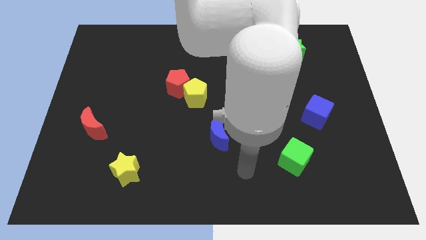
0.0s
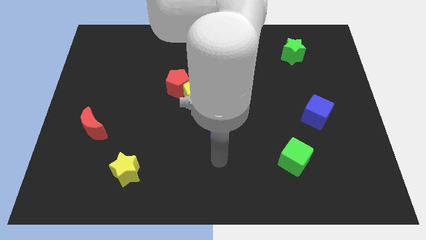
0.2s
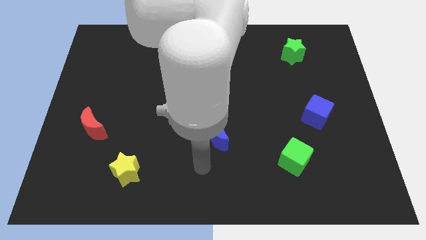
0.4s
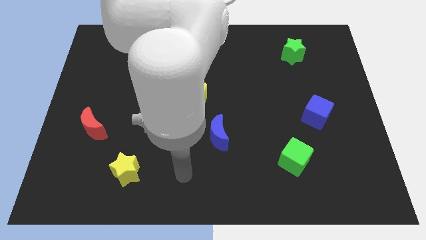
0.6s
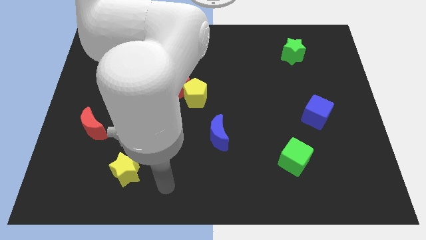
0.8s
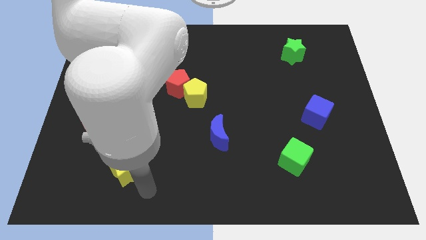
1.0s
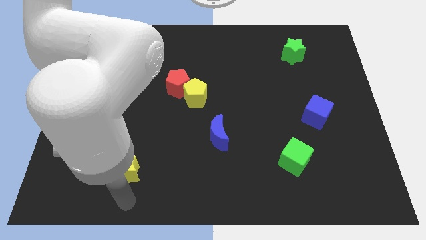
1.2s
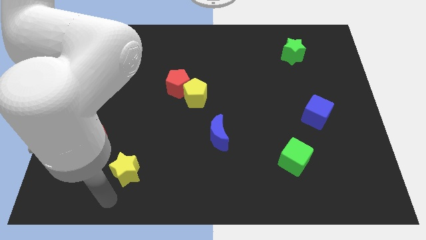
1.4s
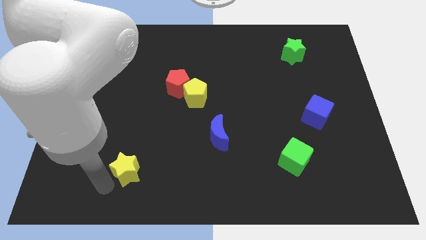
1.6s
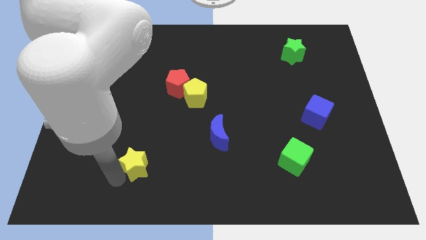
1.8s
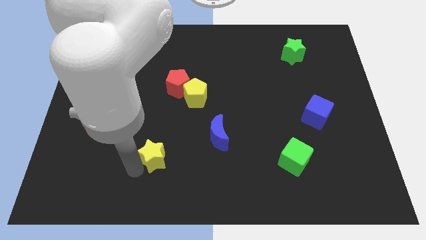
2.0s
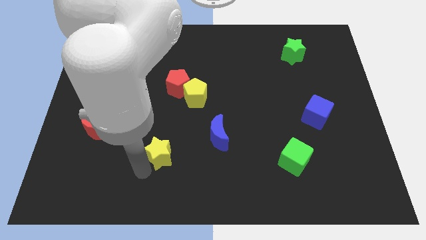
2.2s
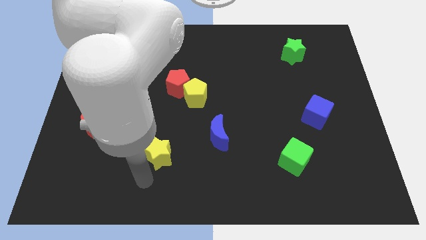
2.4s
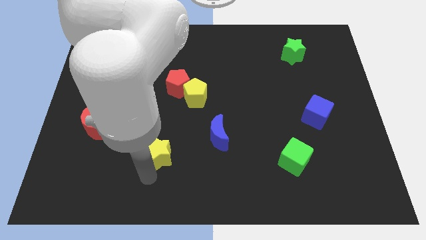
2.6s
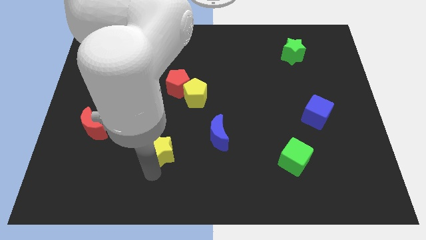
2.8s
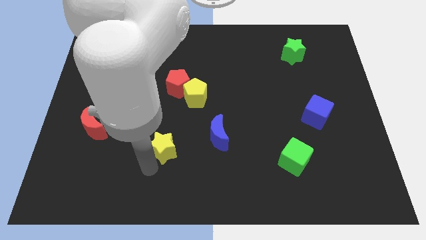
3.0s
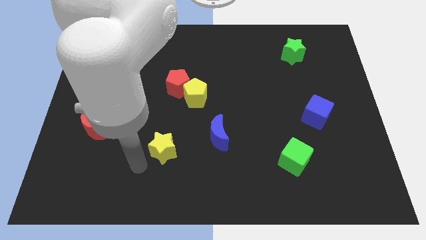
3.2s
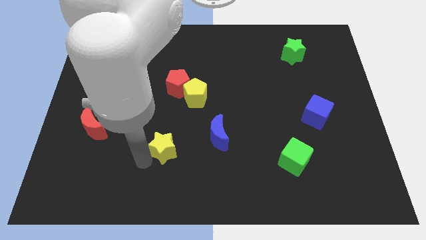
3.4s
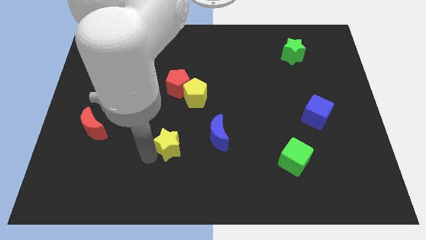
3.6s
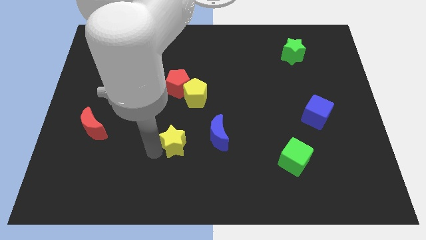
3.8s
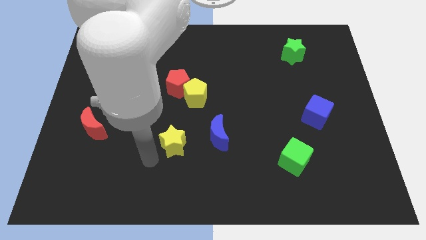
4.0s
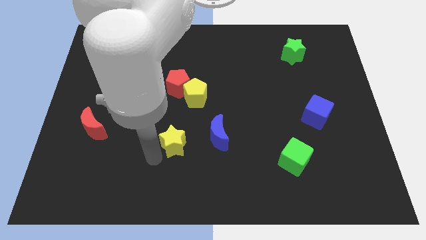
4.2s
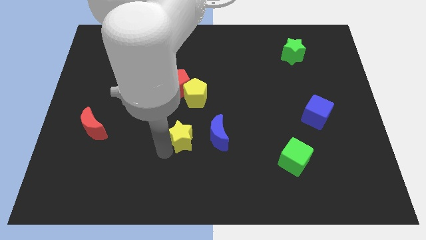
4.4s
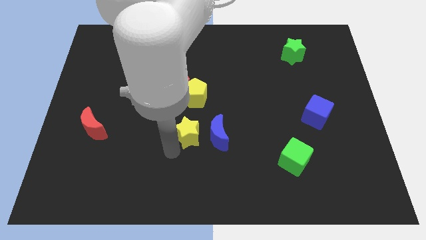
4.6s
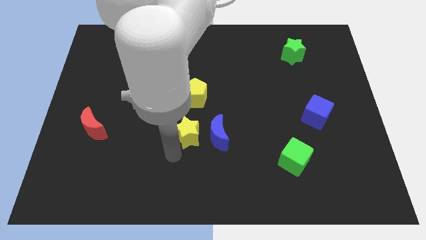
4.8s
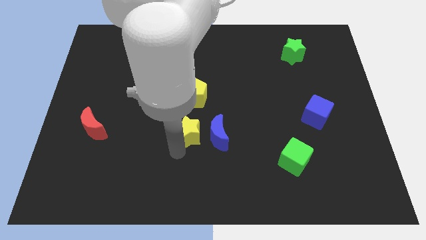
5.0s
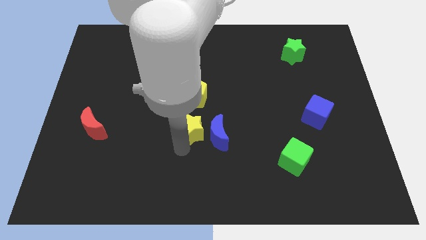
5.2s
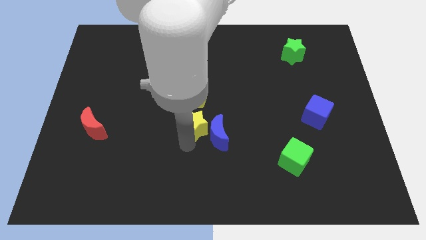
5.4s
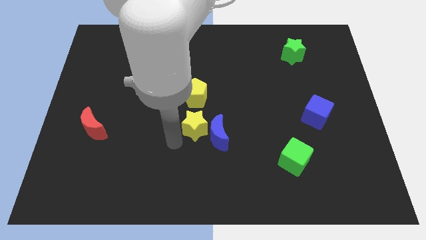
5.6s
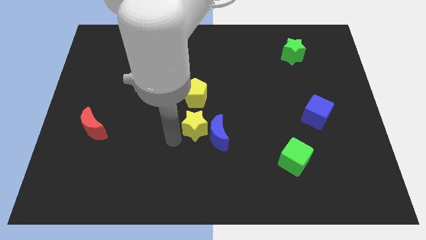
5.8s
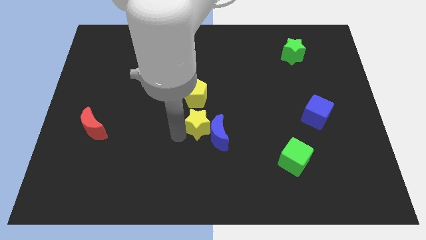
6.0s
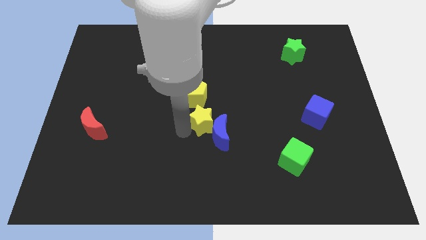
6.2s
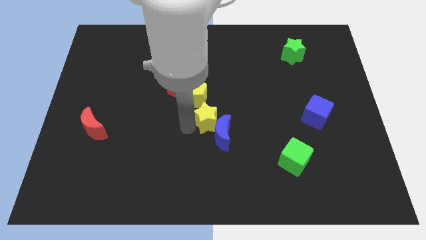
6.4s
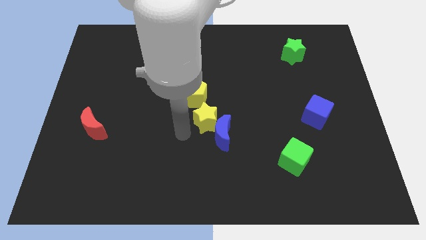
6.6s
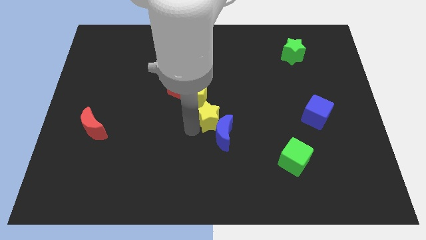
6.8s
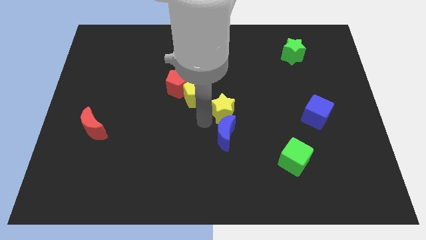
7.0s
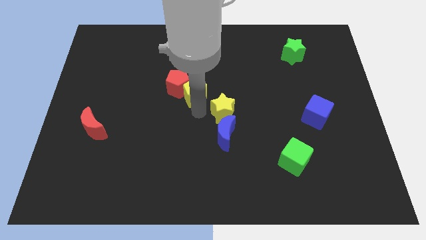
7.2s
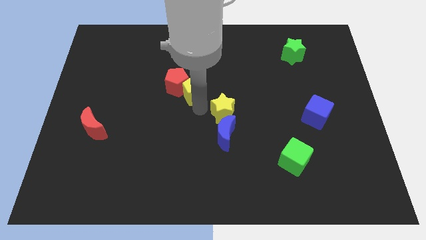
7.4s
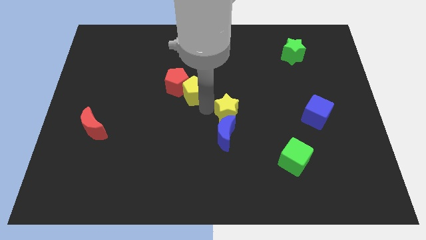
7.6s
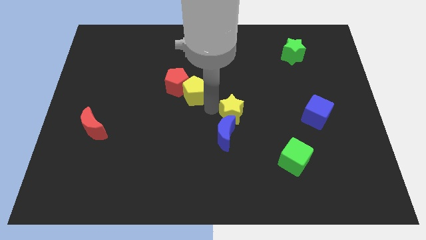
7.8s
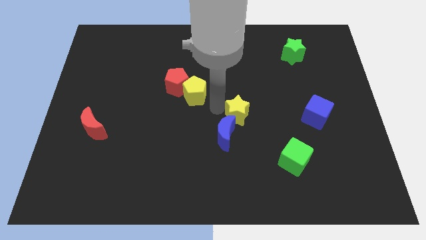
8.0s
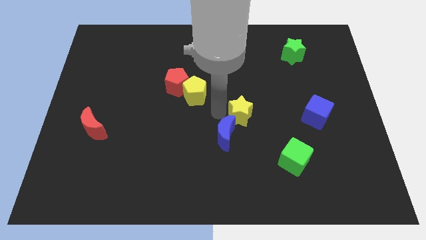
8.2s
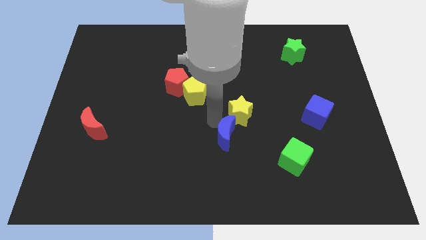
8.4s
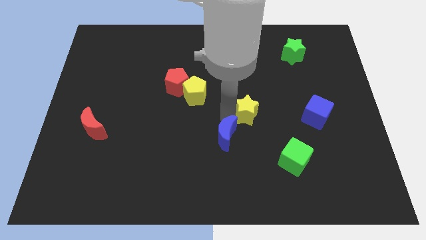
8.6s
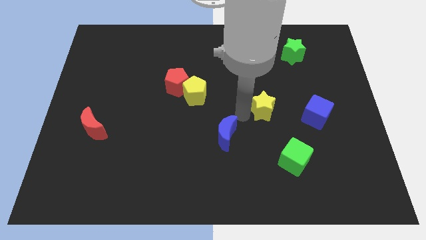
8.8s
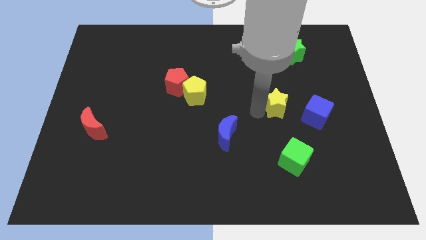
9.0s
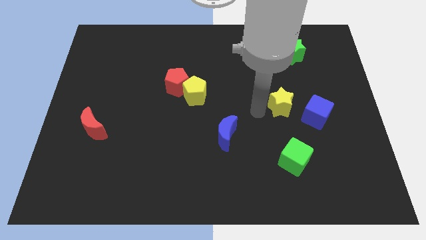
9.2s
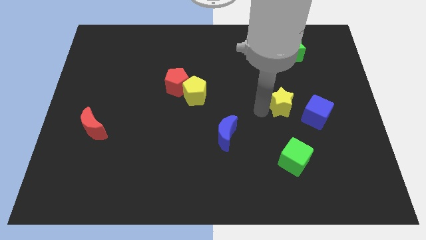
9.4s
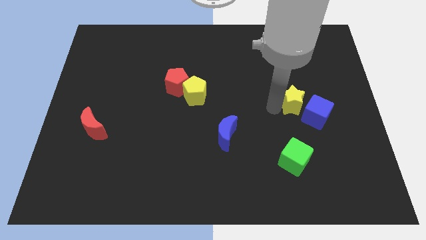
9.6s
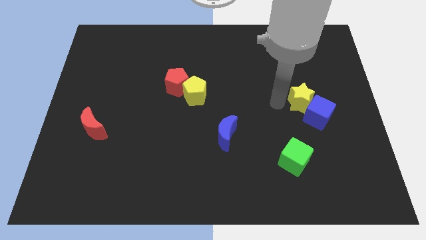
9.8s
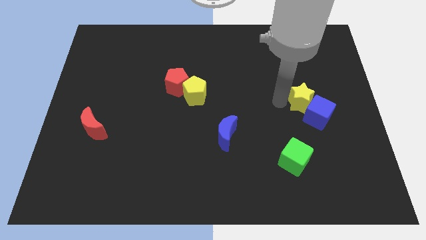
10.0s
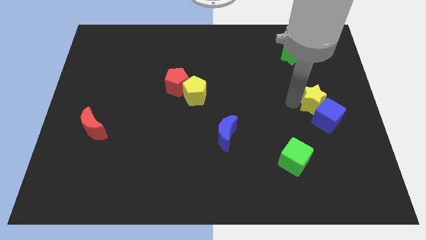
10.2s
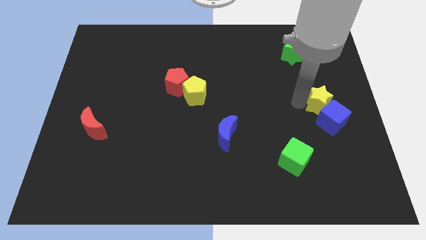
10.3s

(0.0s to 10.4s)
move the yellow star to the right side

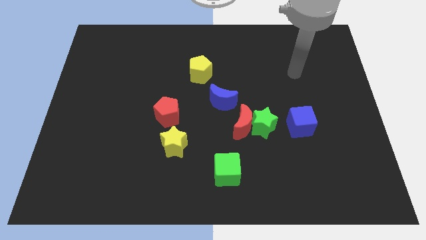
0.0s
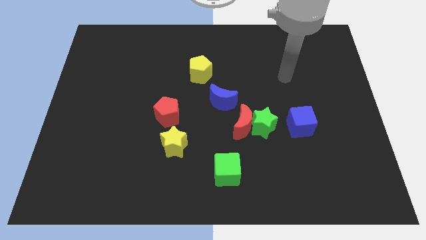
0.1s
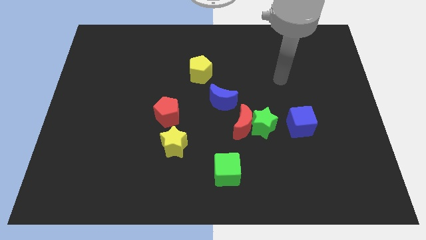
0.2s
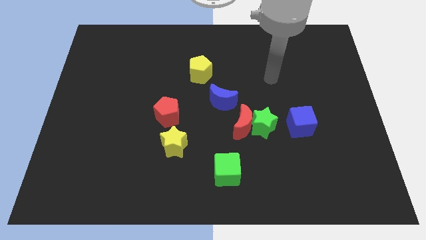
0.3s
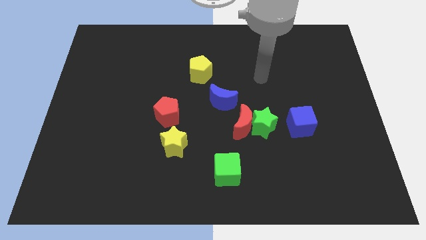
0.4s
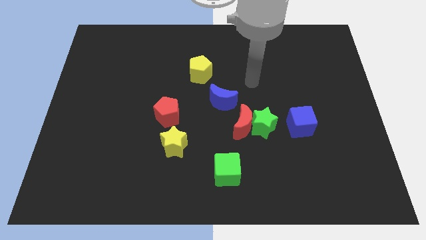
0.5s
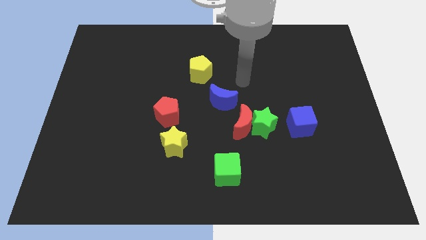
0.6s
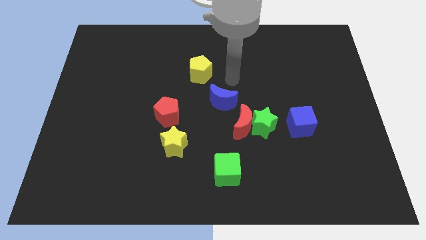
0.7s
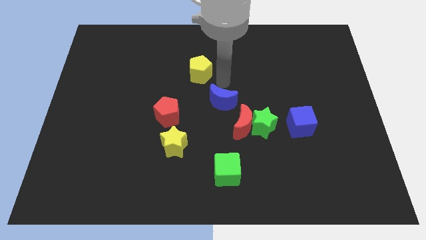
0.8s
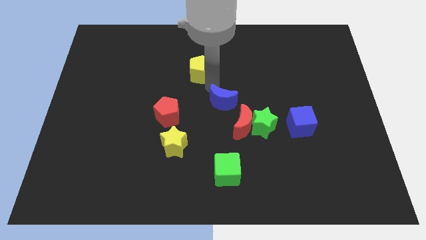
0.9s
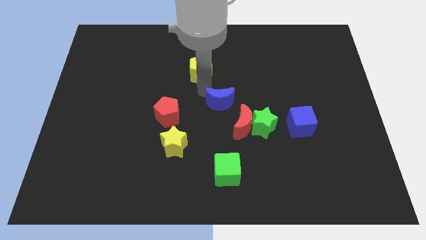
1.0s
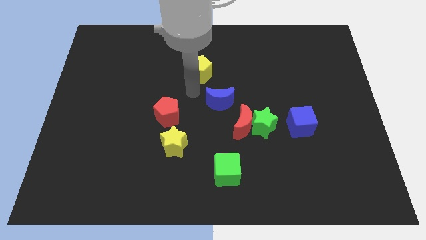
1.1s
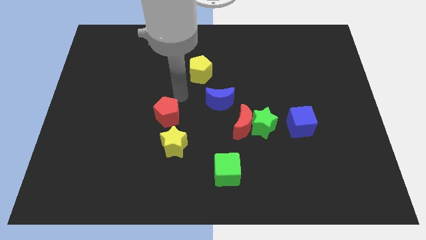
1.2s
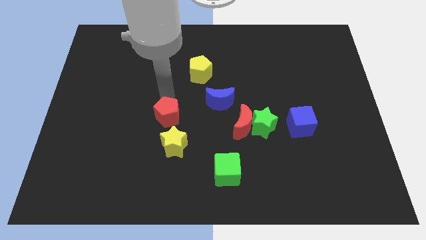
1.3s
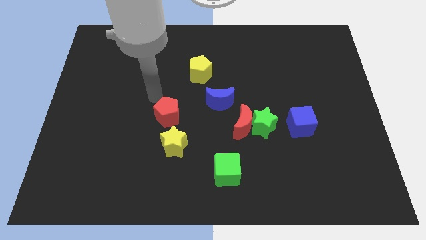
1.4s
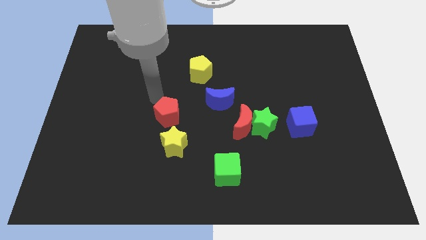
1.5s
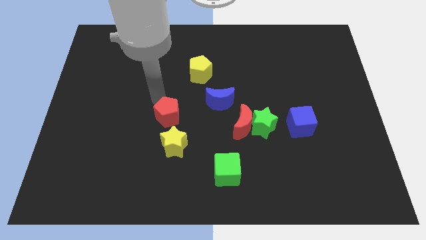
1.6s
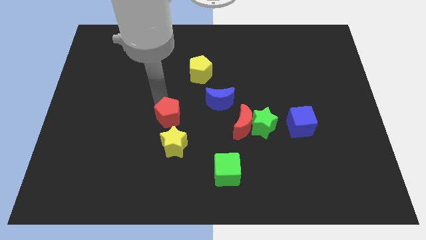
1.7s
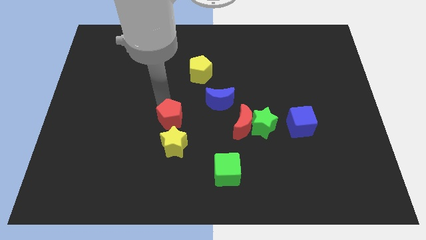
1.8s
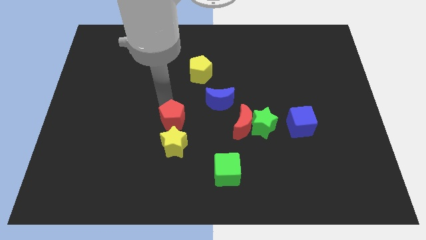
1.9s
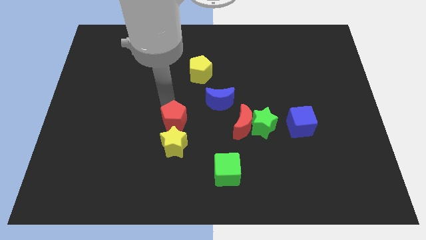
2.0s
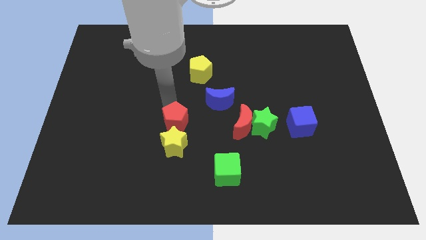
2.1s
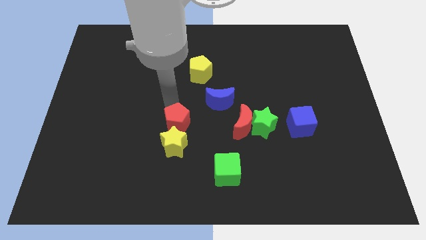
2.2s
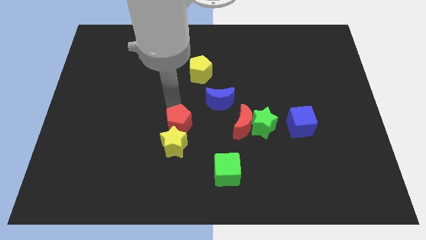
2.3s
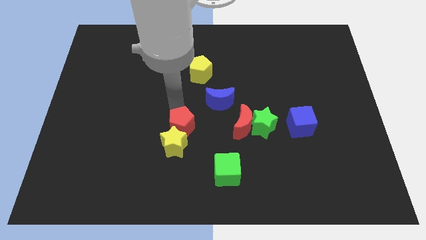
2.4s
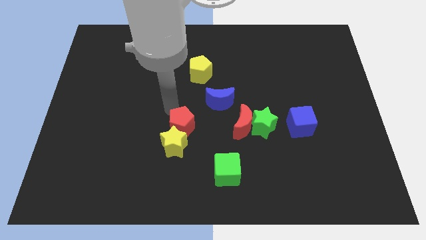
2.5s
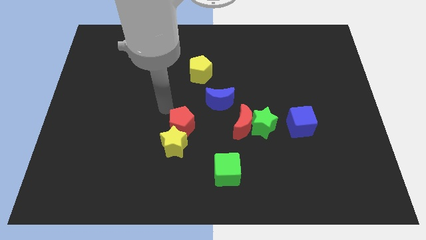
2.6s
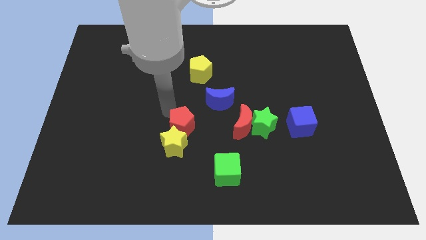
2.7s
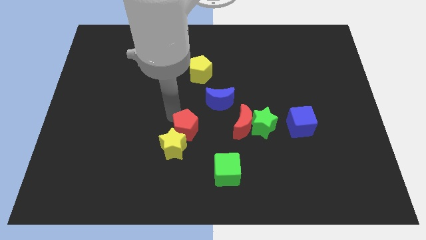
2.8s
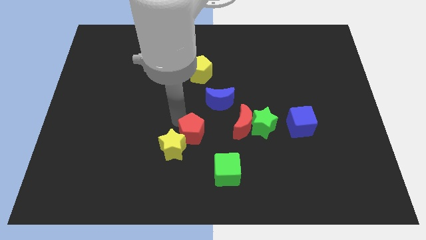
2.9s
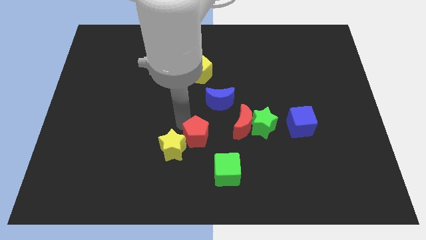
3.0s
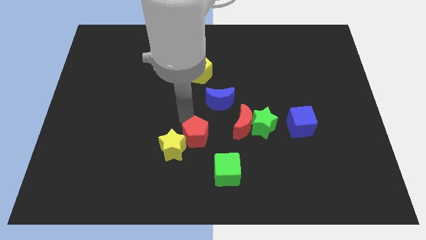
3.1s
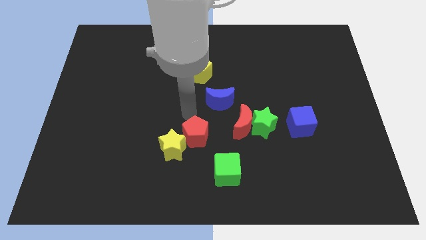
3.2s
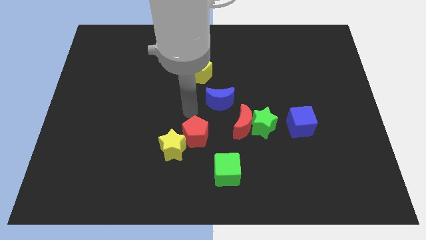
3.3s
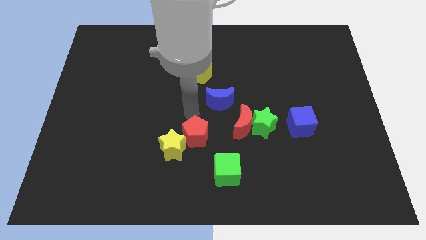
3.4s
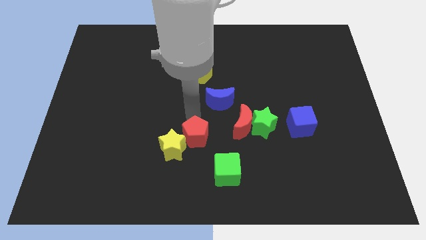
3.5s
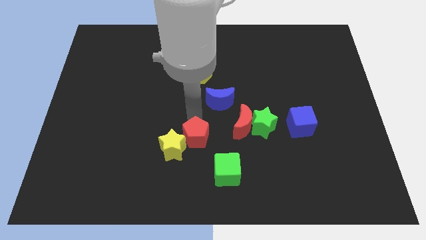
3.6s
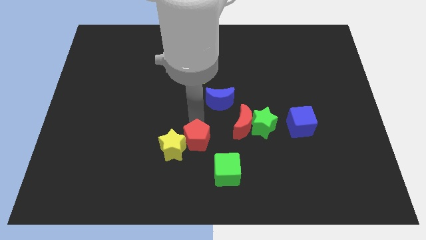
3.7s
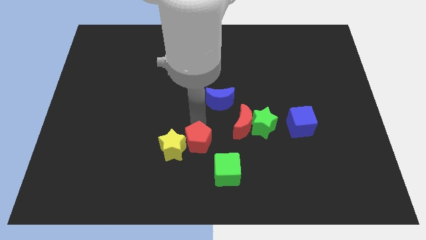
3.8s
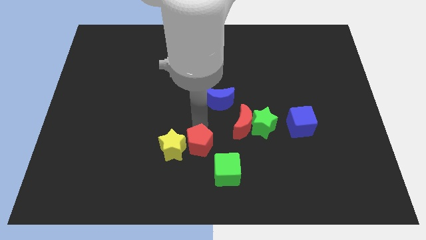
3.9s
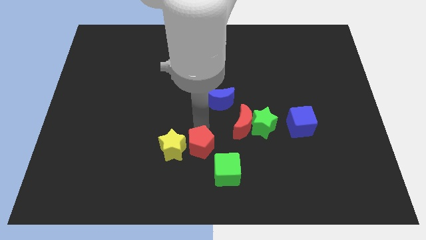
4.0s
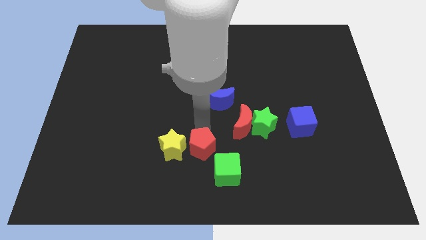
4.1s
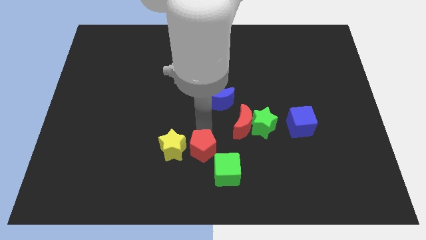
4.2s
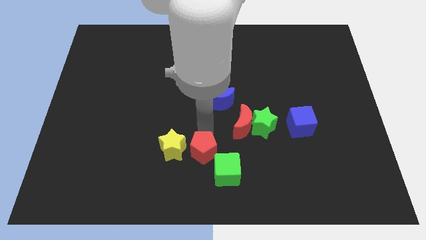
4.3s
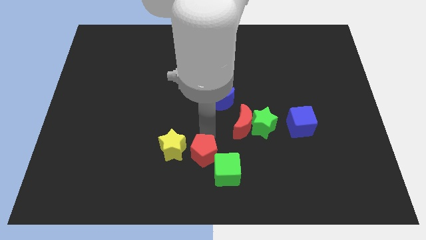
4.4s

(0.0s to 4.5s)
put the red pentagon to the bottom
